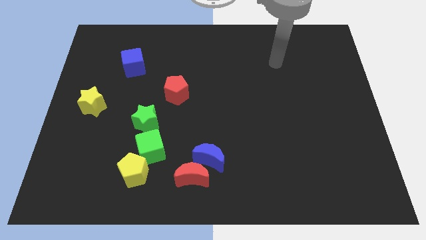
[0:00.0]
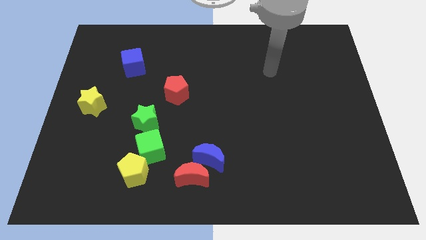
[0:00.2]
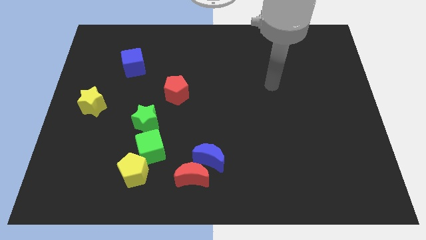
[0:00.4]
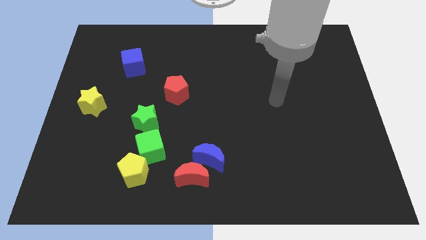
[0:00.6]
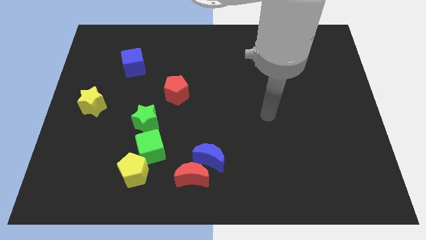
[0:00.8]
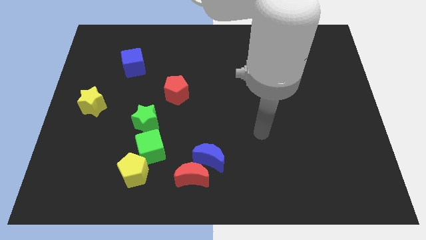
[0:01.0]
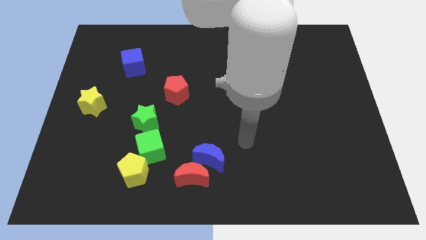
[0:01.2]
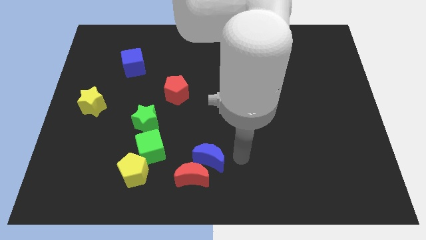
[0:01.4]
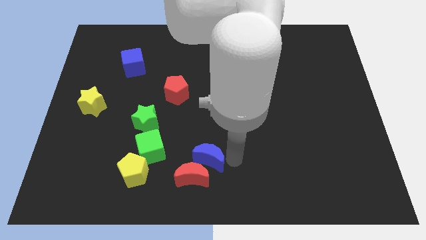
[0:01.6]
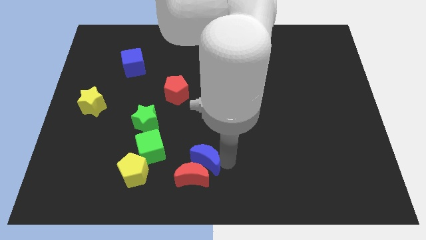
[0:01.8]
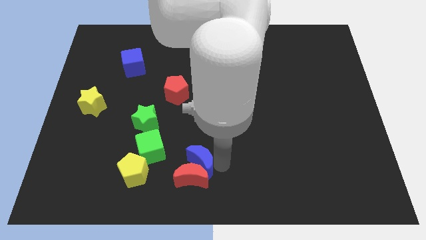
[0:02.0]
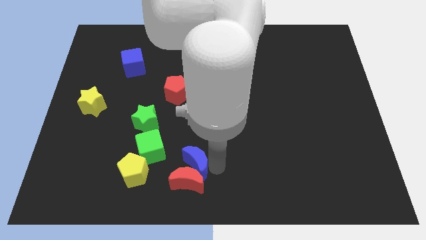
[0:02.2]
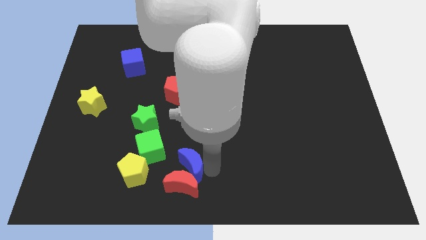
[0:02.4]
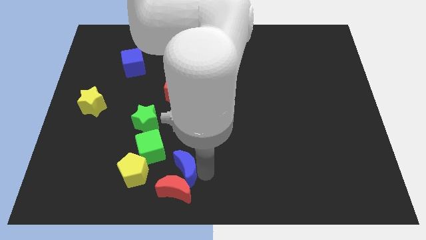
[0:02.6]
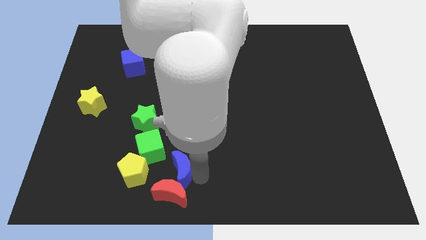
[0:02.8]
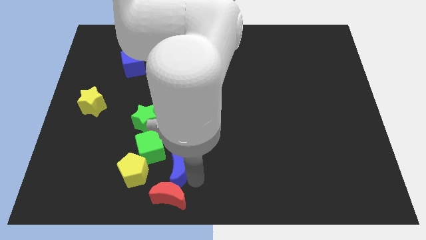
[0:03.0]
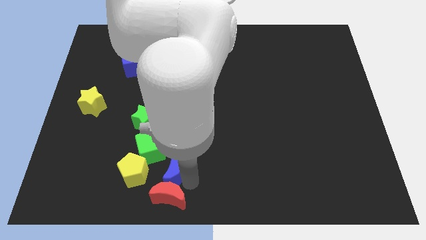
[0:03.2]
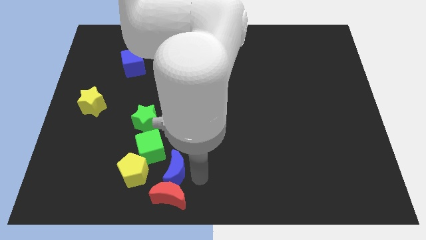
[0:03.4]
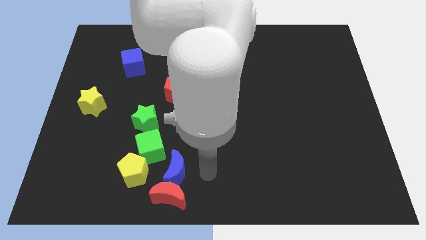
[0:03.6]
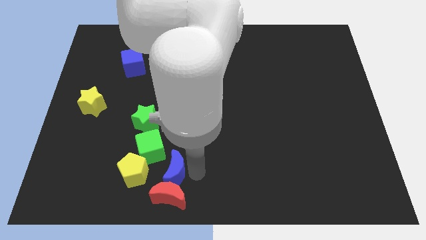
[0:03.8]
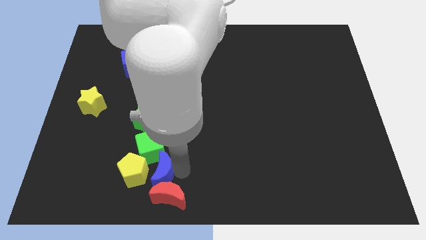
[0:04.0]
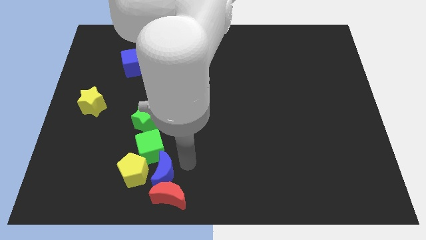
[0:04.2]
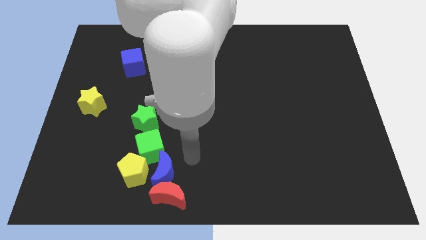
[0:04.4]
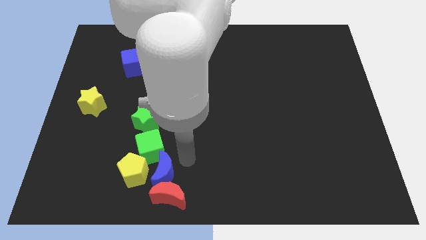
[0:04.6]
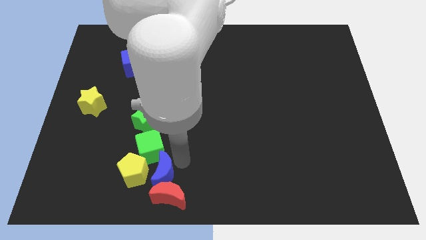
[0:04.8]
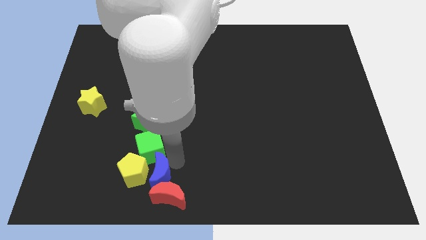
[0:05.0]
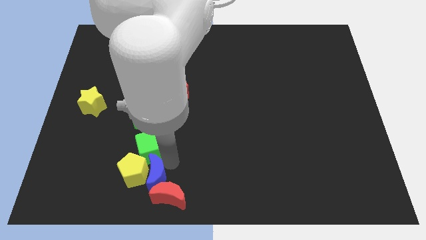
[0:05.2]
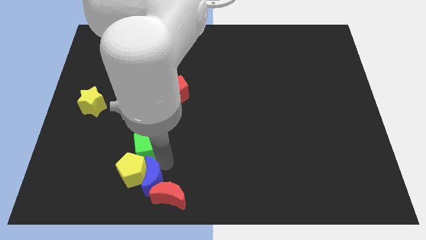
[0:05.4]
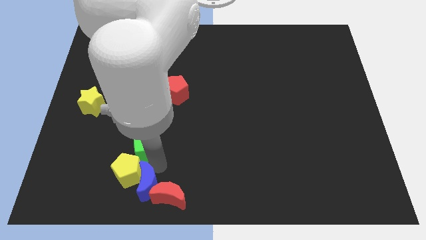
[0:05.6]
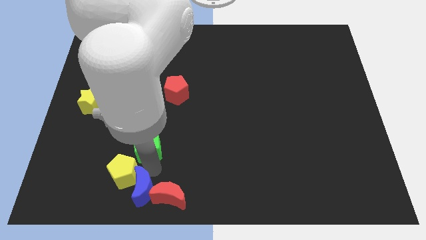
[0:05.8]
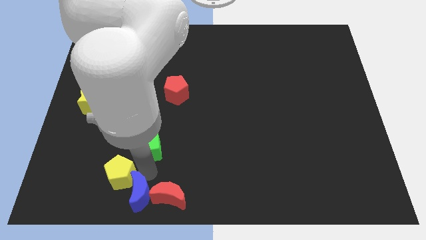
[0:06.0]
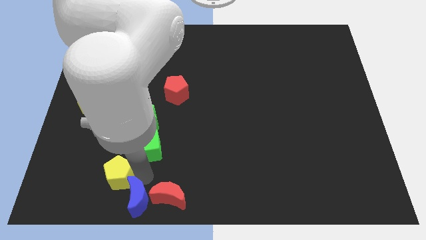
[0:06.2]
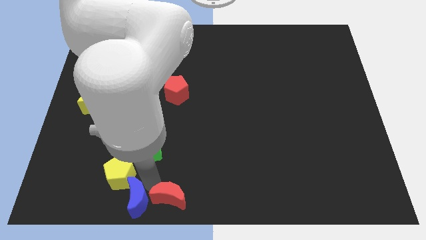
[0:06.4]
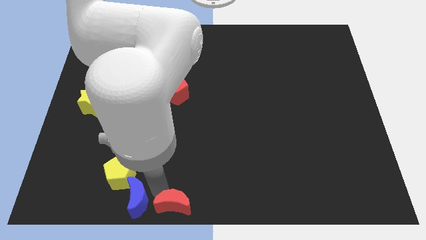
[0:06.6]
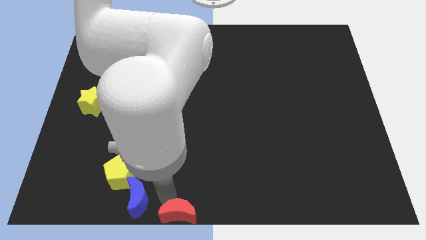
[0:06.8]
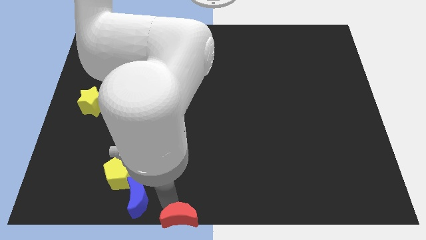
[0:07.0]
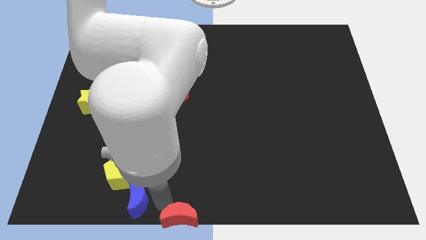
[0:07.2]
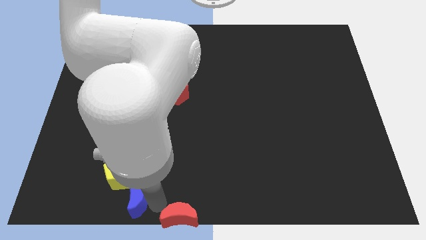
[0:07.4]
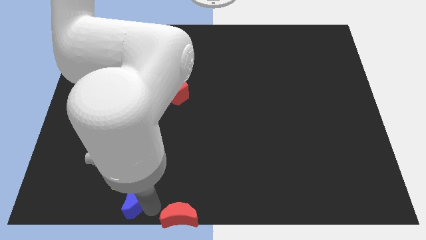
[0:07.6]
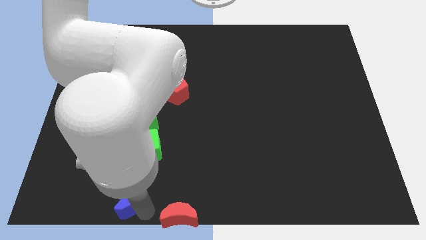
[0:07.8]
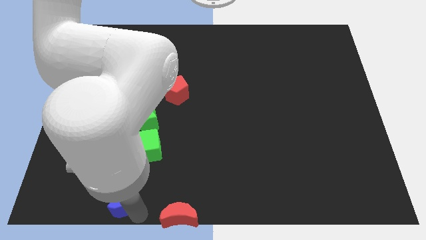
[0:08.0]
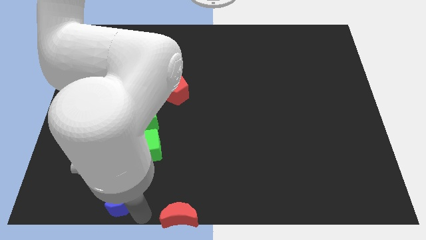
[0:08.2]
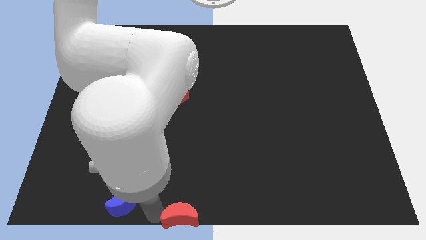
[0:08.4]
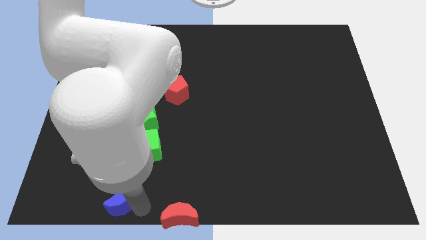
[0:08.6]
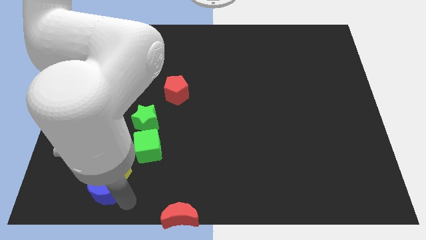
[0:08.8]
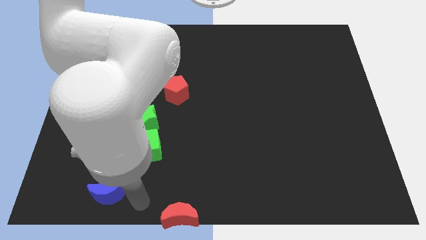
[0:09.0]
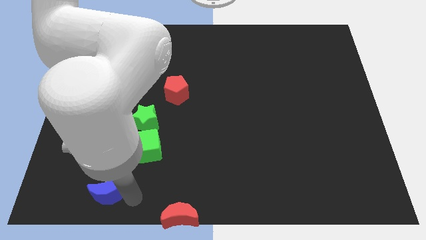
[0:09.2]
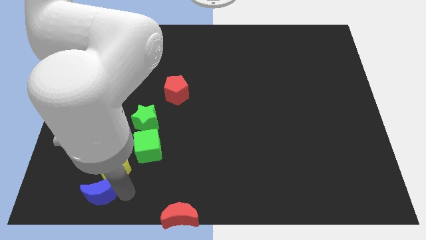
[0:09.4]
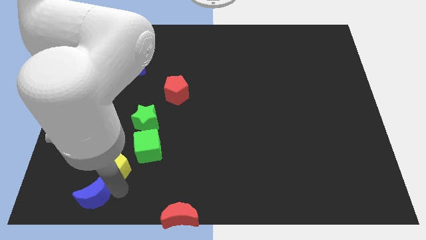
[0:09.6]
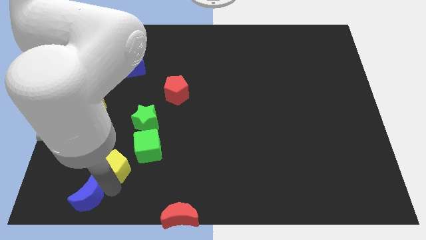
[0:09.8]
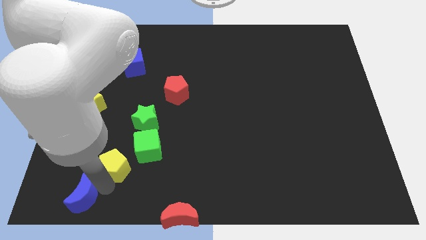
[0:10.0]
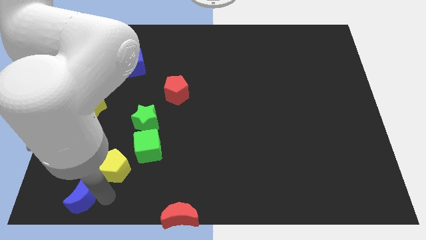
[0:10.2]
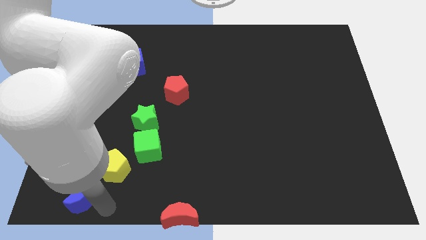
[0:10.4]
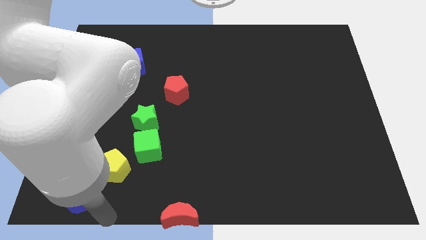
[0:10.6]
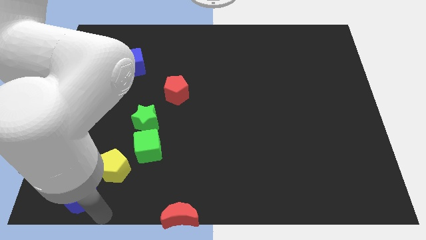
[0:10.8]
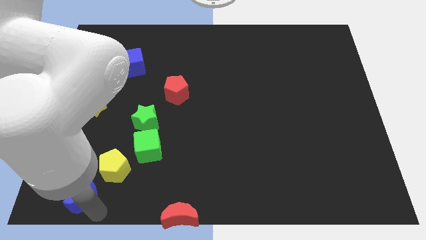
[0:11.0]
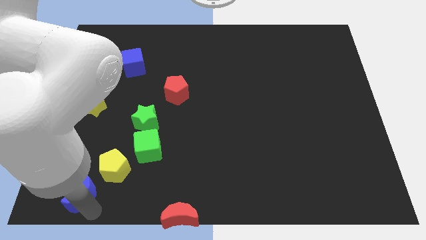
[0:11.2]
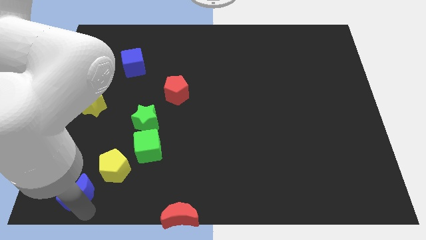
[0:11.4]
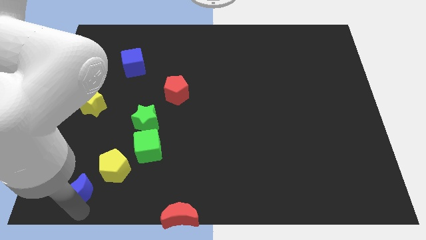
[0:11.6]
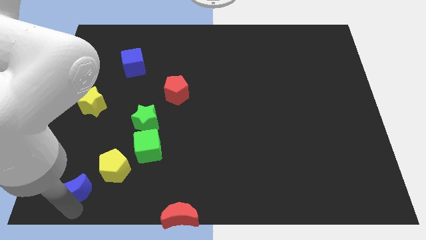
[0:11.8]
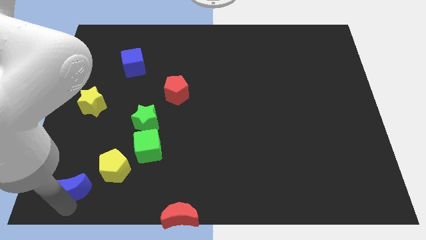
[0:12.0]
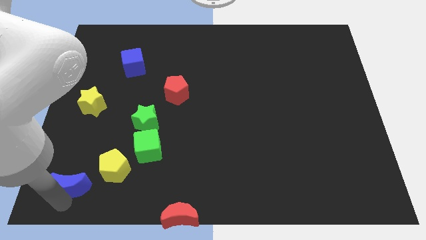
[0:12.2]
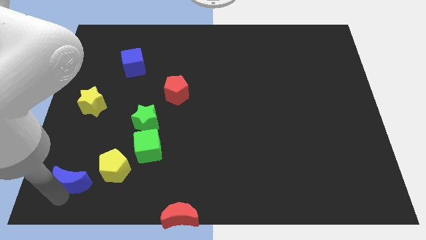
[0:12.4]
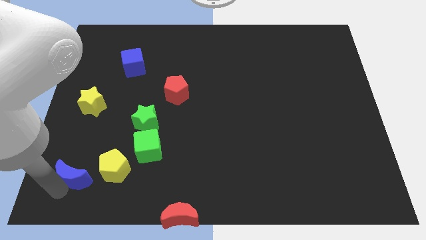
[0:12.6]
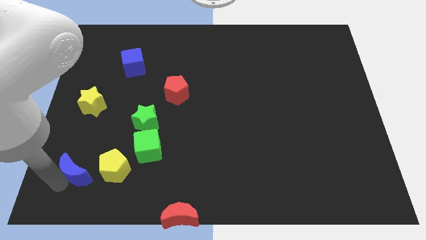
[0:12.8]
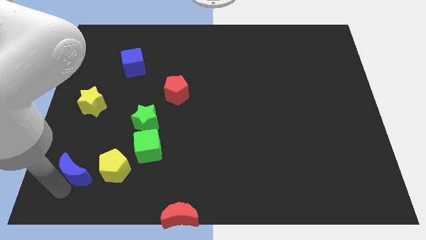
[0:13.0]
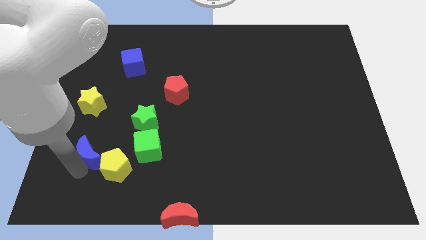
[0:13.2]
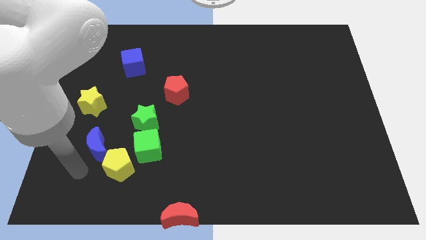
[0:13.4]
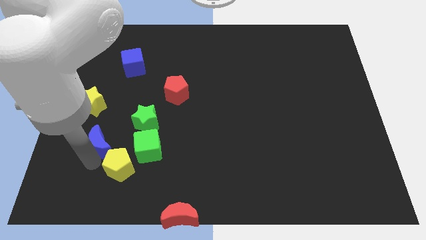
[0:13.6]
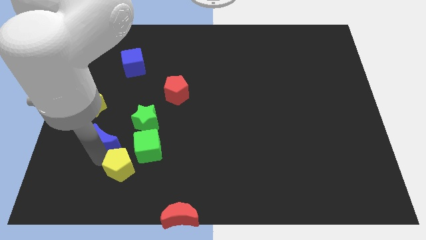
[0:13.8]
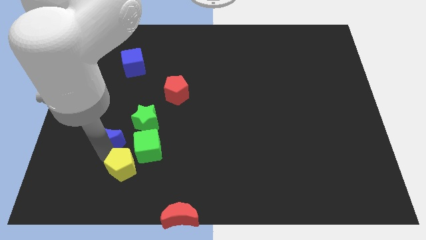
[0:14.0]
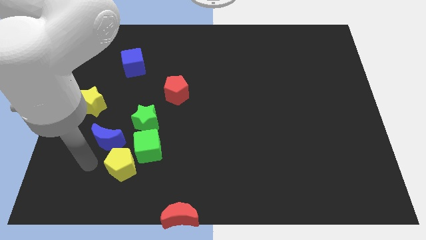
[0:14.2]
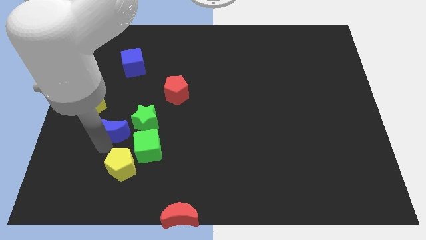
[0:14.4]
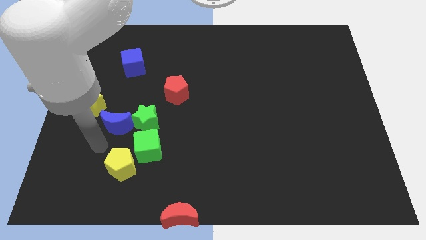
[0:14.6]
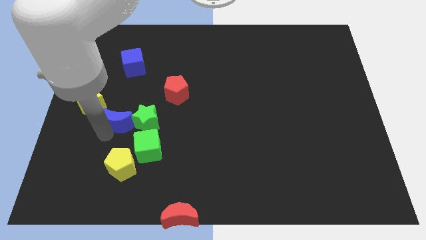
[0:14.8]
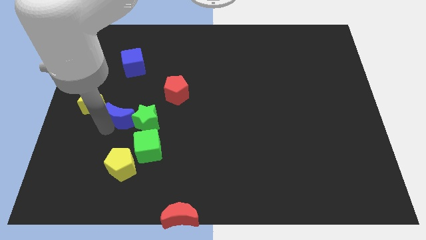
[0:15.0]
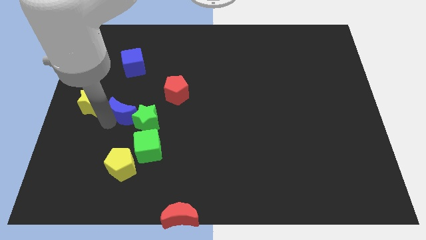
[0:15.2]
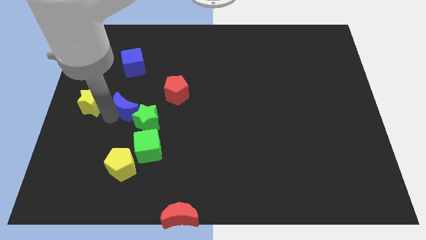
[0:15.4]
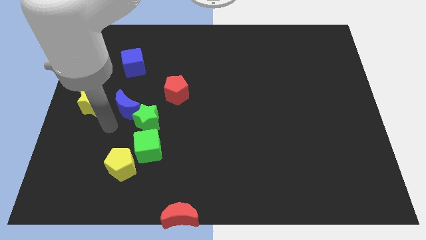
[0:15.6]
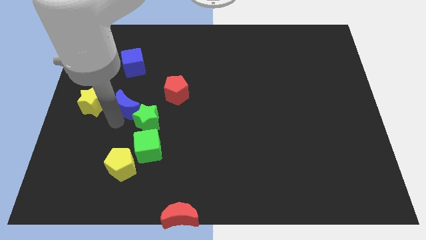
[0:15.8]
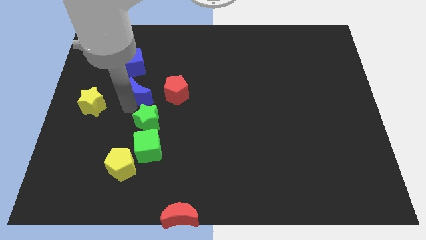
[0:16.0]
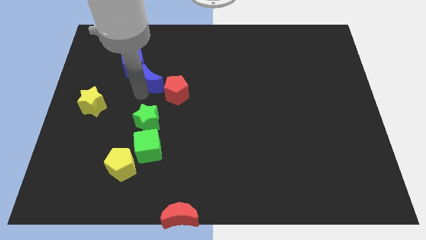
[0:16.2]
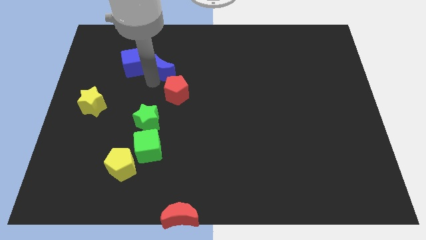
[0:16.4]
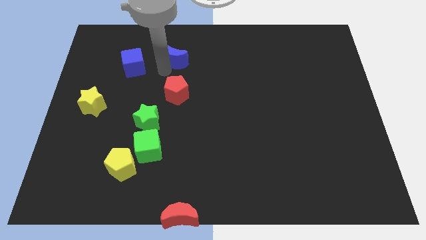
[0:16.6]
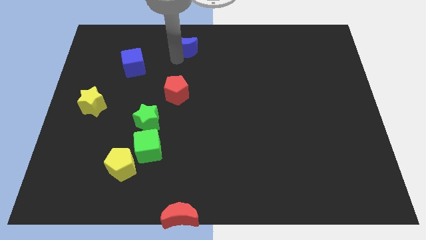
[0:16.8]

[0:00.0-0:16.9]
push the blue moon to the towards your base
